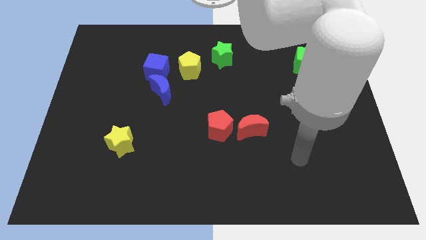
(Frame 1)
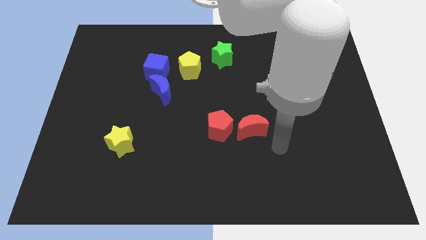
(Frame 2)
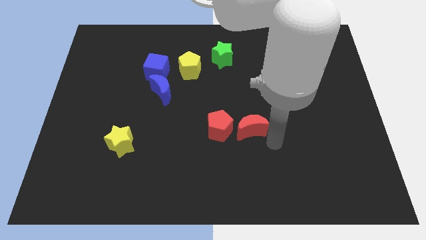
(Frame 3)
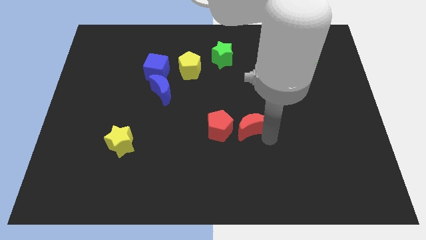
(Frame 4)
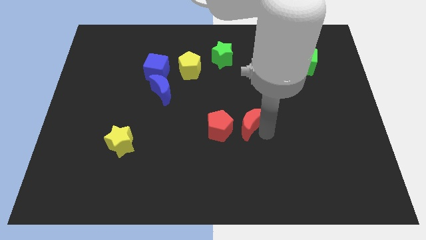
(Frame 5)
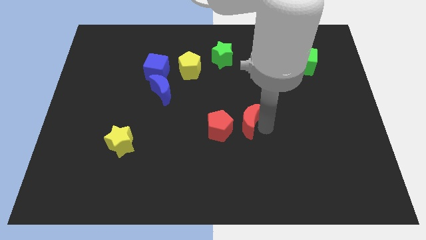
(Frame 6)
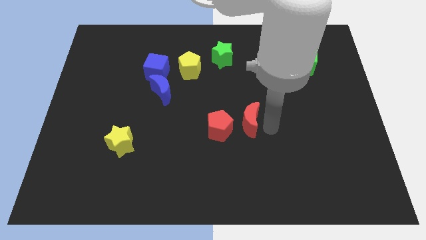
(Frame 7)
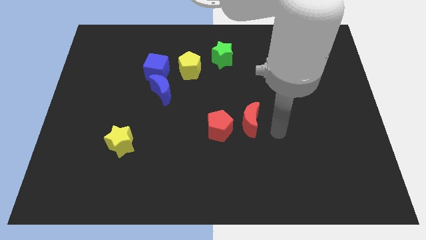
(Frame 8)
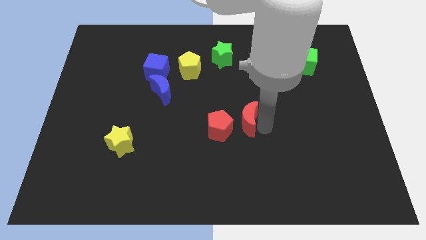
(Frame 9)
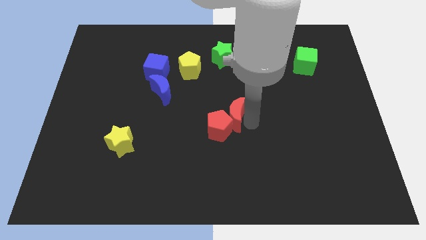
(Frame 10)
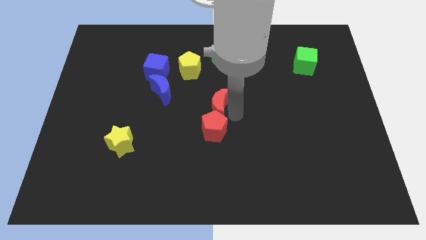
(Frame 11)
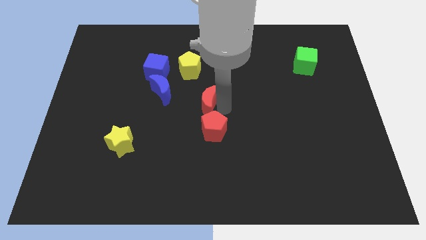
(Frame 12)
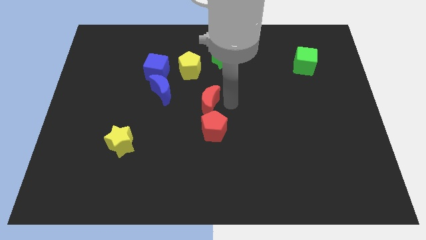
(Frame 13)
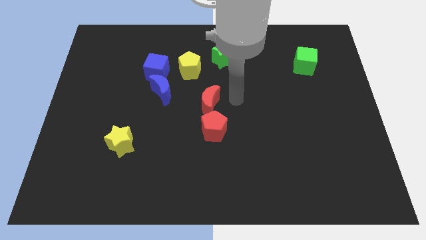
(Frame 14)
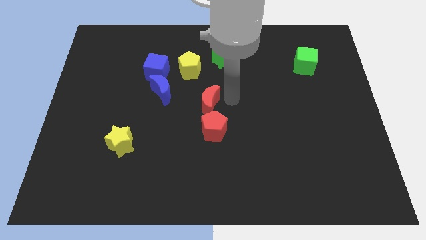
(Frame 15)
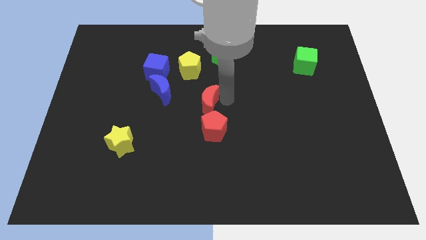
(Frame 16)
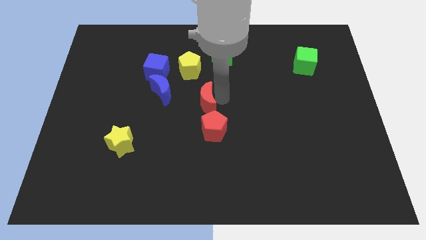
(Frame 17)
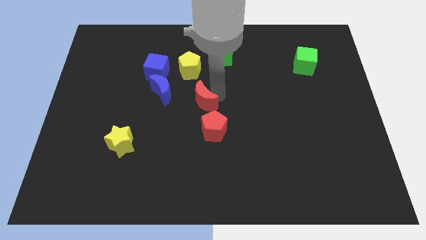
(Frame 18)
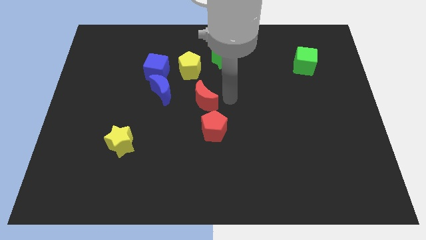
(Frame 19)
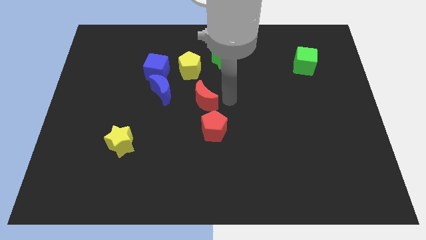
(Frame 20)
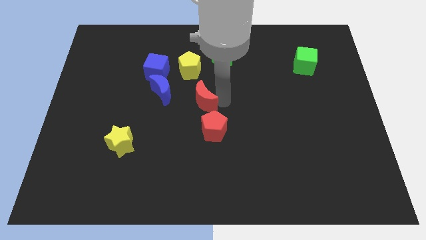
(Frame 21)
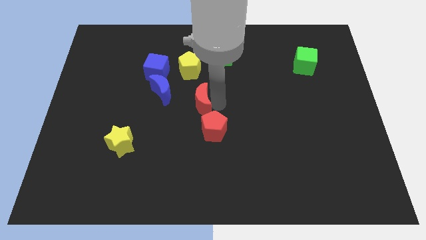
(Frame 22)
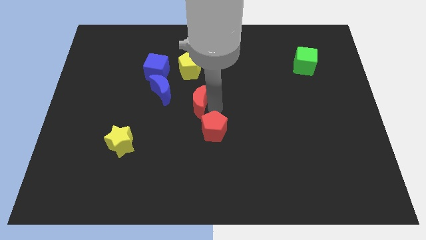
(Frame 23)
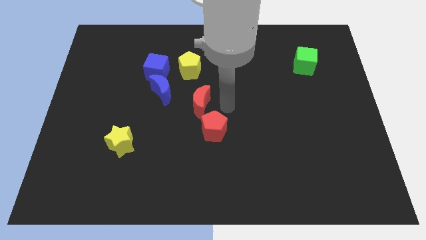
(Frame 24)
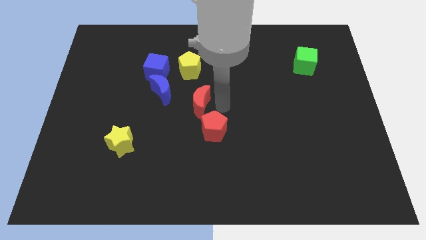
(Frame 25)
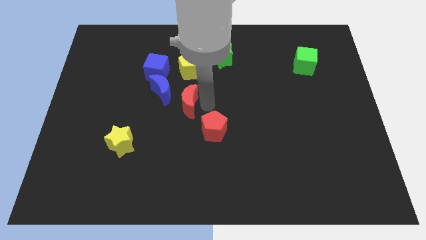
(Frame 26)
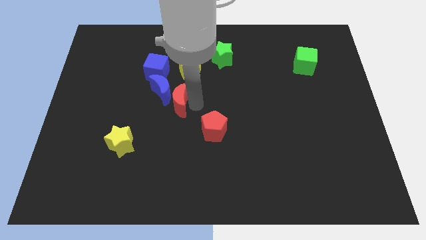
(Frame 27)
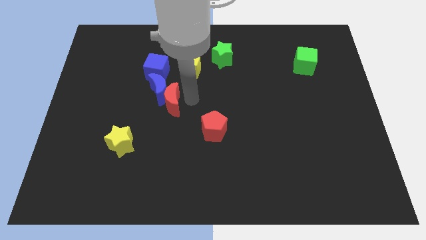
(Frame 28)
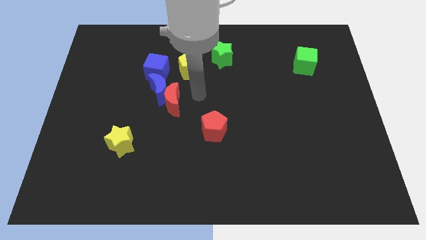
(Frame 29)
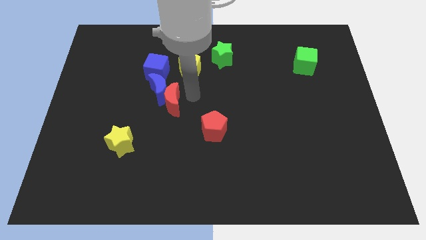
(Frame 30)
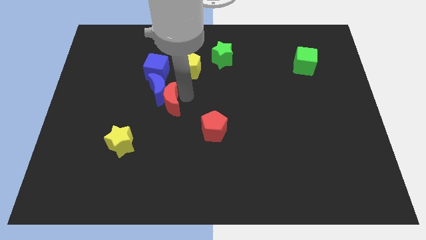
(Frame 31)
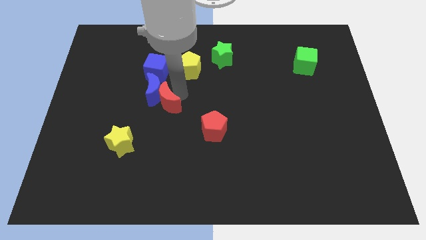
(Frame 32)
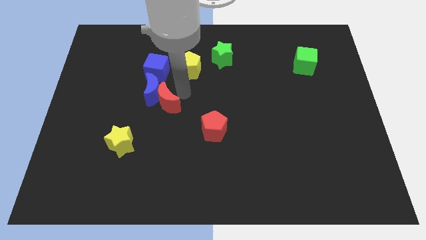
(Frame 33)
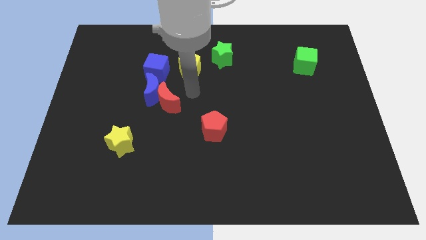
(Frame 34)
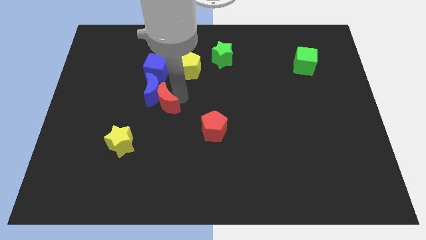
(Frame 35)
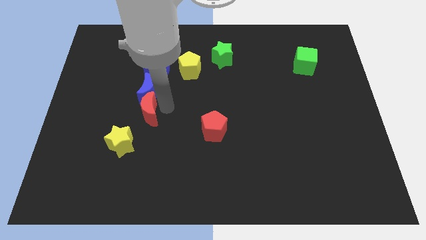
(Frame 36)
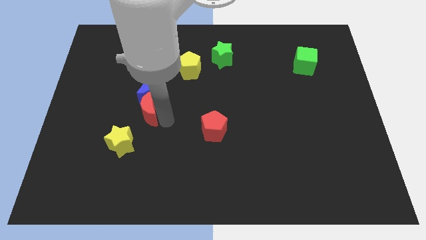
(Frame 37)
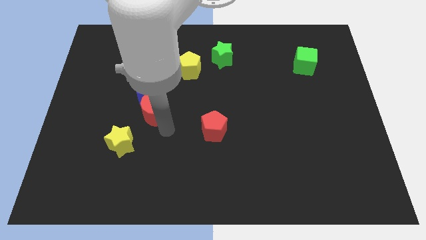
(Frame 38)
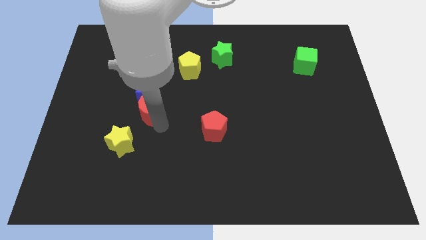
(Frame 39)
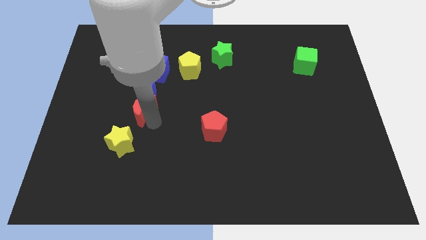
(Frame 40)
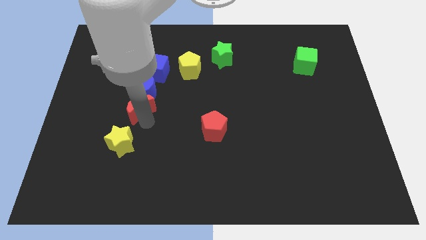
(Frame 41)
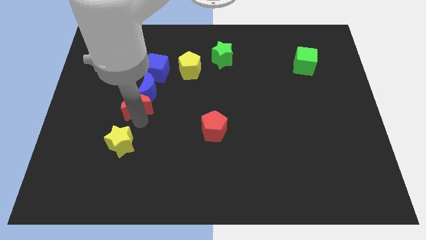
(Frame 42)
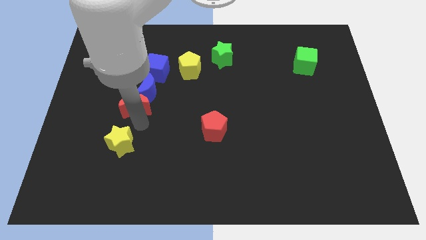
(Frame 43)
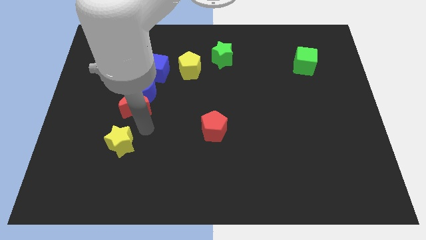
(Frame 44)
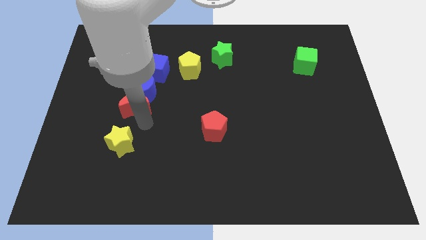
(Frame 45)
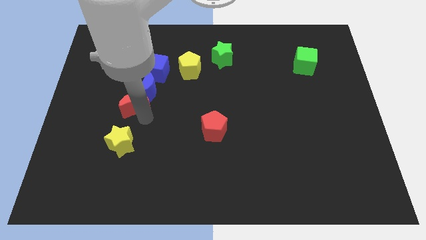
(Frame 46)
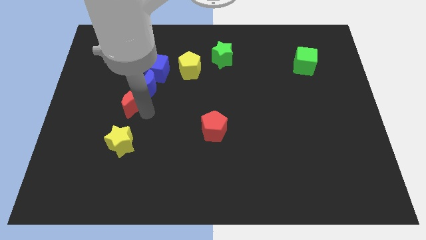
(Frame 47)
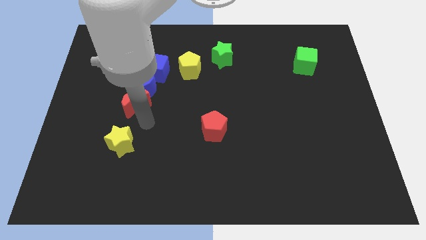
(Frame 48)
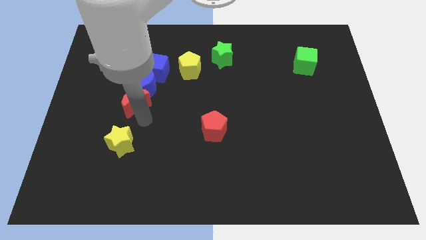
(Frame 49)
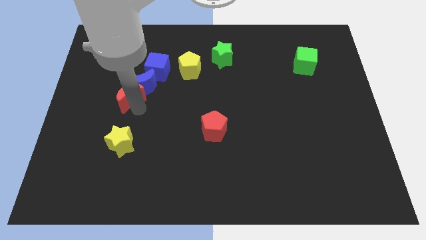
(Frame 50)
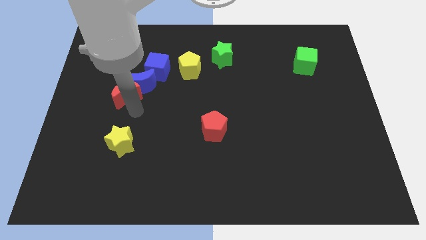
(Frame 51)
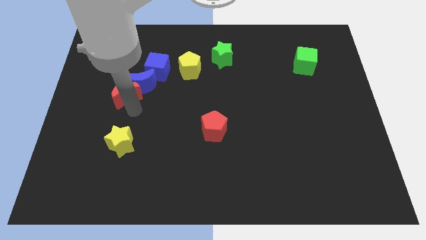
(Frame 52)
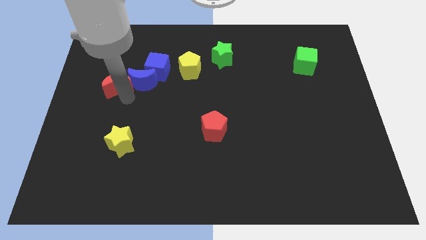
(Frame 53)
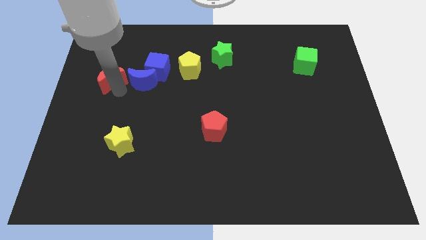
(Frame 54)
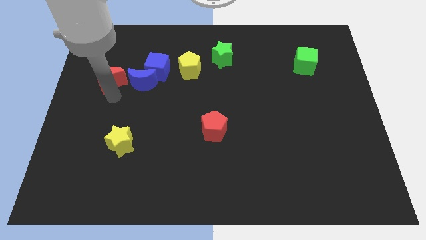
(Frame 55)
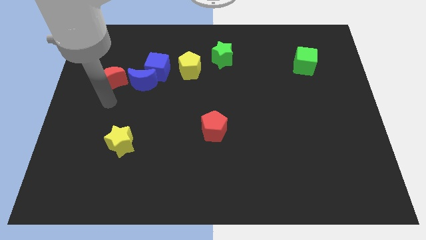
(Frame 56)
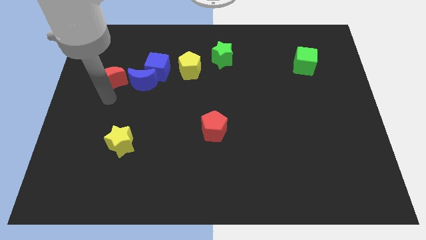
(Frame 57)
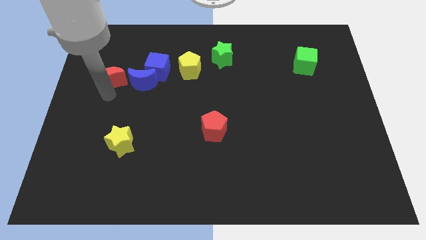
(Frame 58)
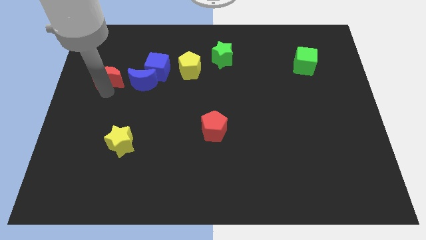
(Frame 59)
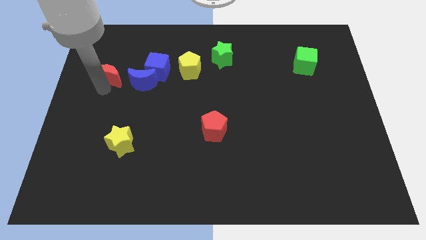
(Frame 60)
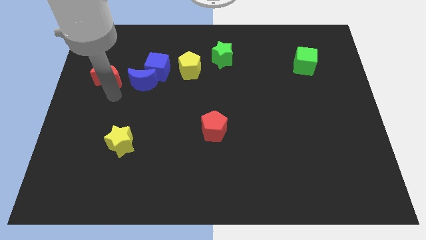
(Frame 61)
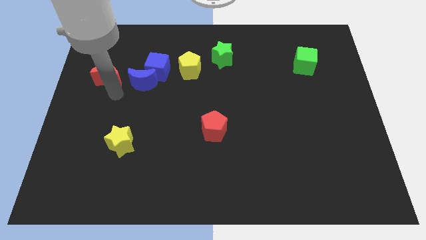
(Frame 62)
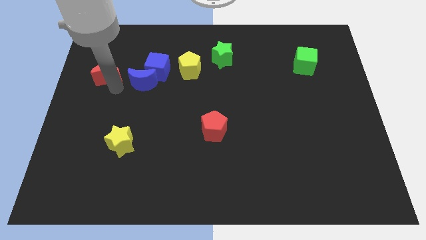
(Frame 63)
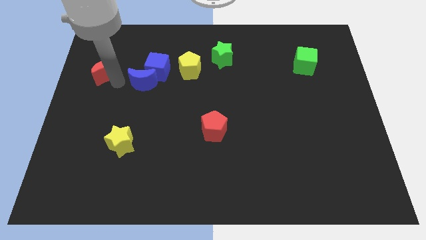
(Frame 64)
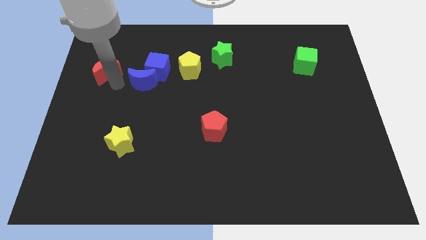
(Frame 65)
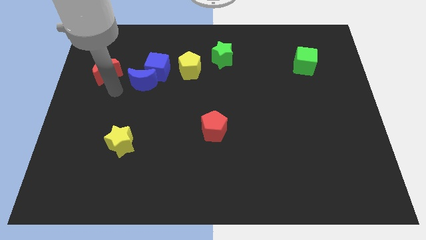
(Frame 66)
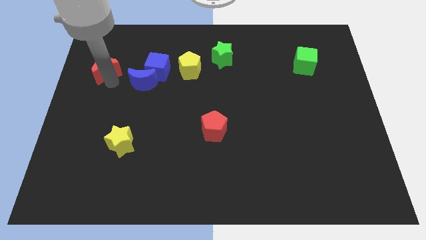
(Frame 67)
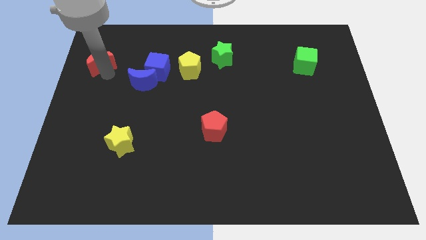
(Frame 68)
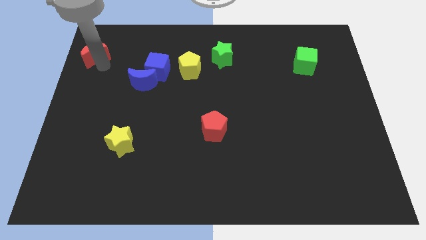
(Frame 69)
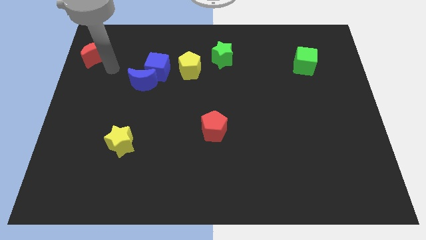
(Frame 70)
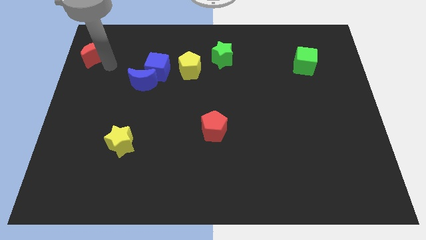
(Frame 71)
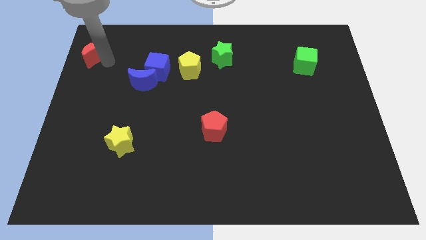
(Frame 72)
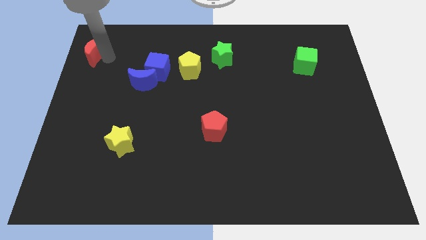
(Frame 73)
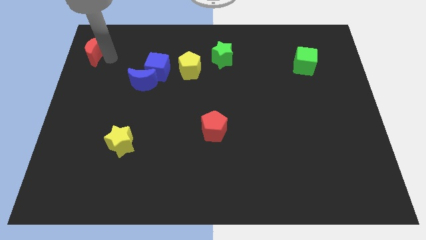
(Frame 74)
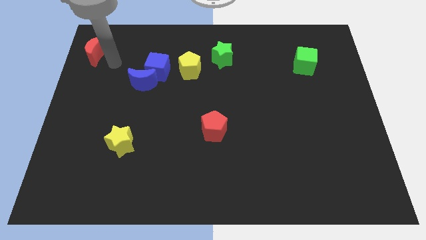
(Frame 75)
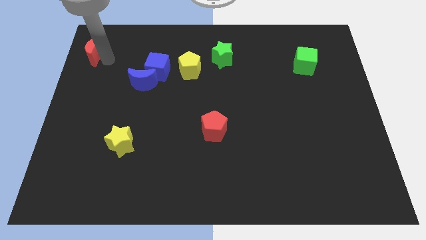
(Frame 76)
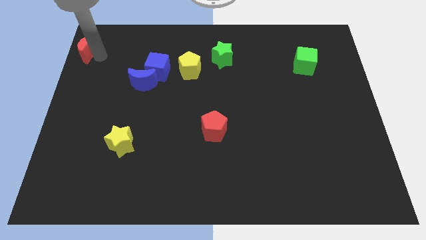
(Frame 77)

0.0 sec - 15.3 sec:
move the red moon to the upper left corner
